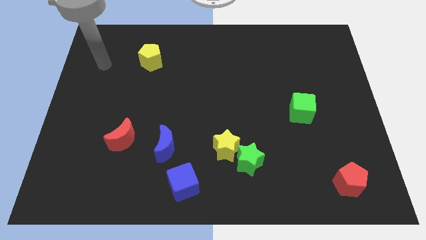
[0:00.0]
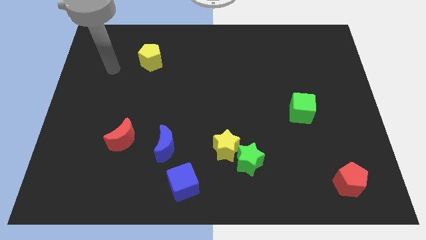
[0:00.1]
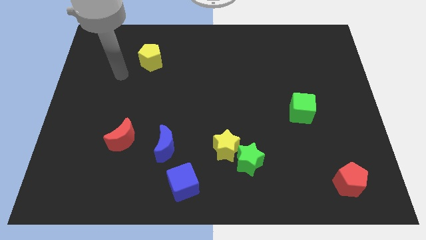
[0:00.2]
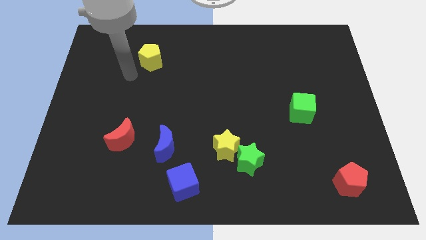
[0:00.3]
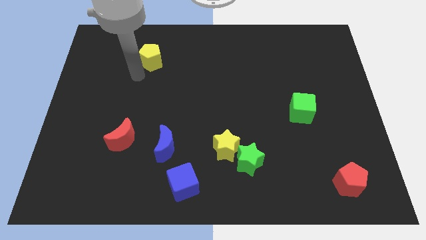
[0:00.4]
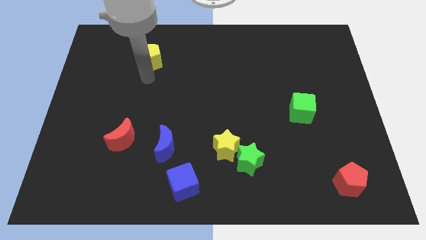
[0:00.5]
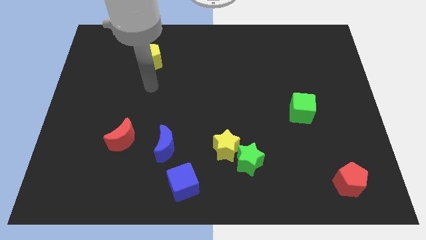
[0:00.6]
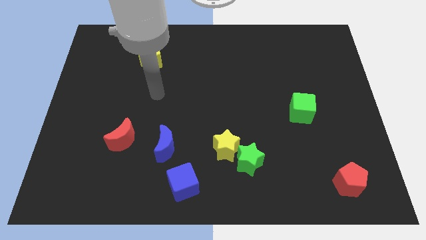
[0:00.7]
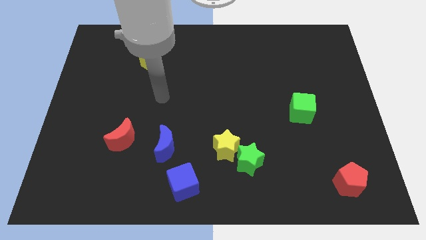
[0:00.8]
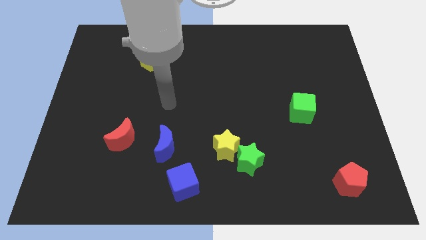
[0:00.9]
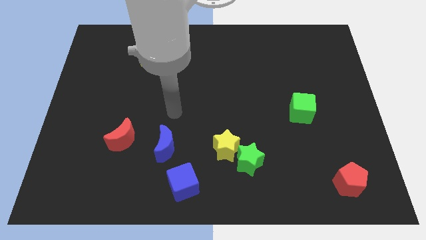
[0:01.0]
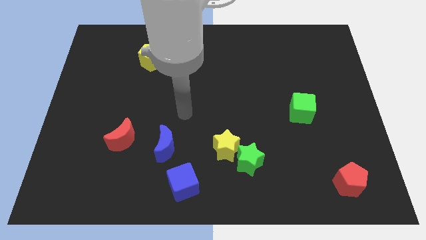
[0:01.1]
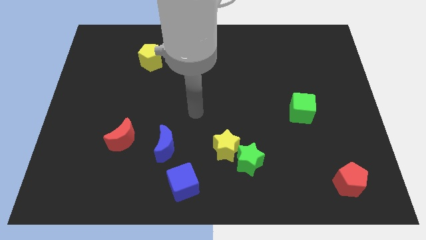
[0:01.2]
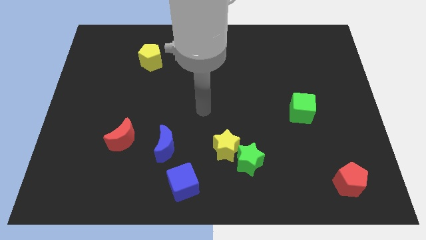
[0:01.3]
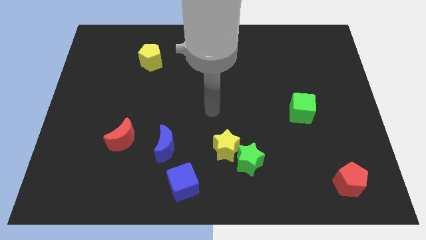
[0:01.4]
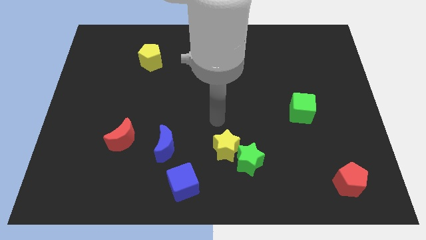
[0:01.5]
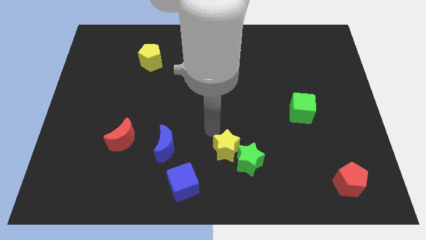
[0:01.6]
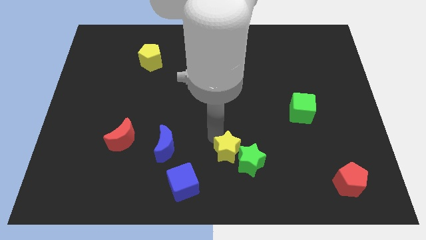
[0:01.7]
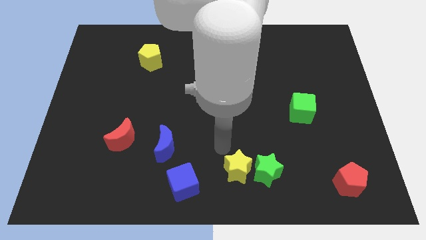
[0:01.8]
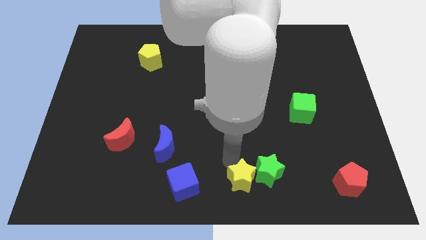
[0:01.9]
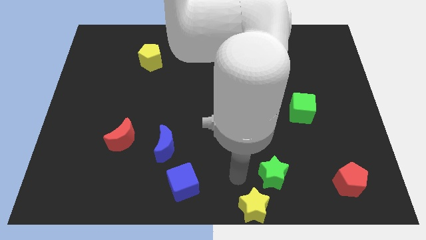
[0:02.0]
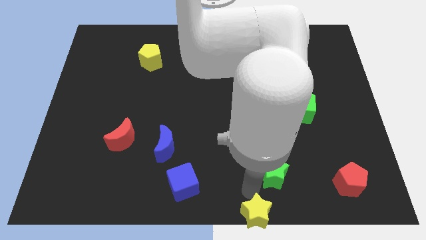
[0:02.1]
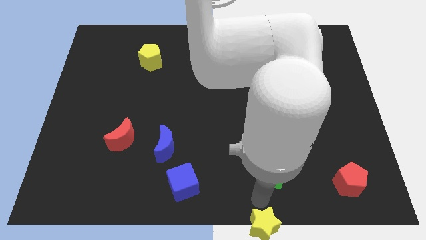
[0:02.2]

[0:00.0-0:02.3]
move the green star away from the yellow star

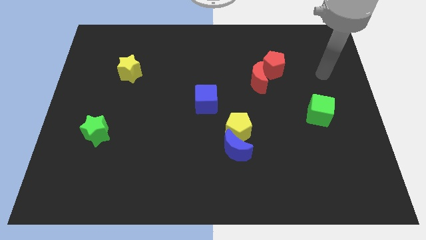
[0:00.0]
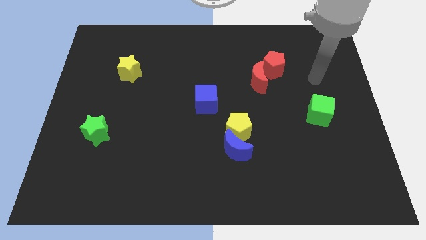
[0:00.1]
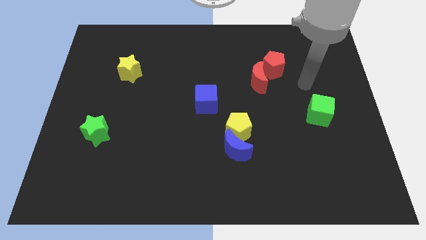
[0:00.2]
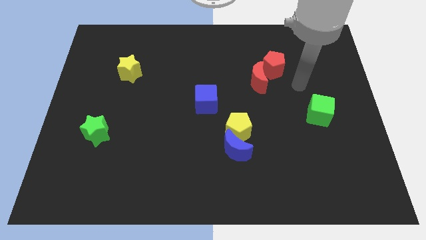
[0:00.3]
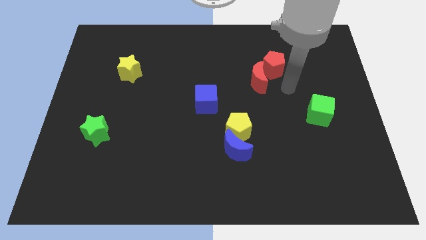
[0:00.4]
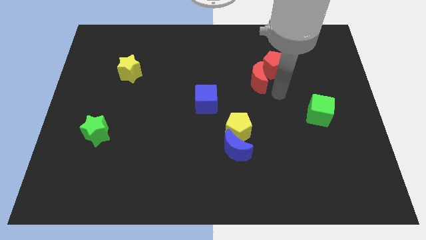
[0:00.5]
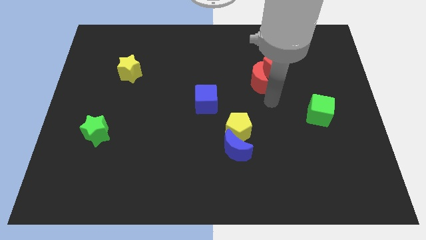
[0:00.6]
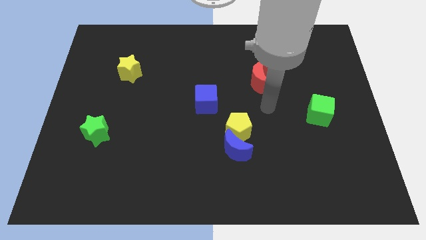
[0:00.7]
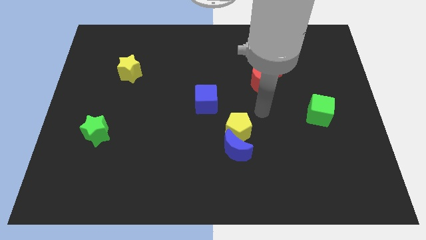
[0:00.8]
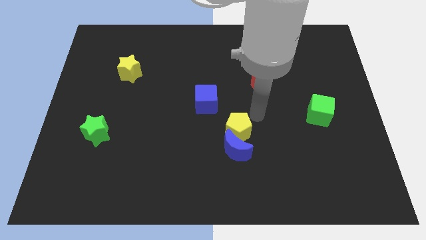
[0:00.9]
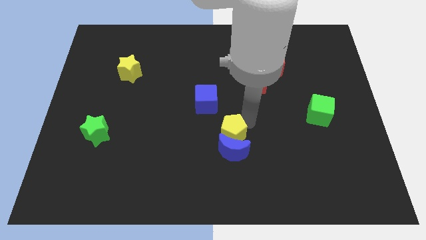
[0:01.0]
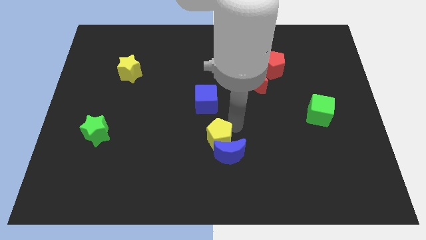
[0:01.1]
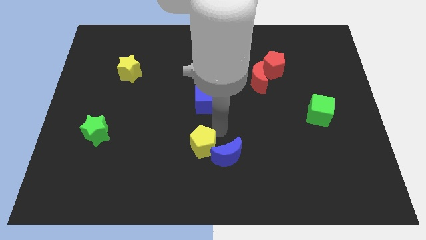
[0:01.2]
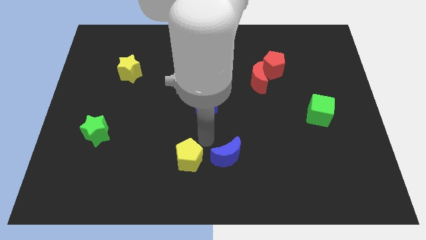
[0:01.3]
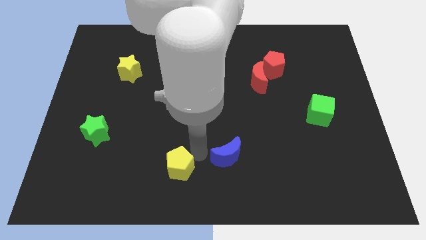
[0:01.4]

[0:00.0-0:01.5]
pull the blue moon apart from the yellow pentagon

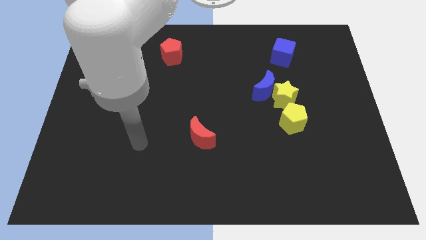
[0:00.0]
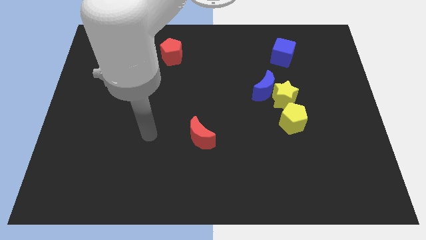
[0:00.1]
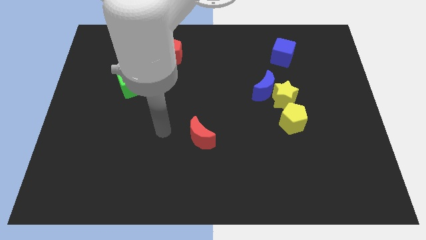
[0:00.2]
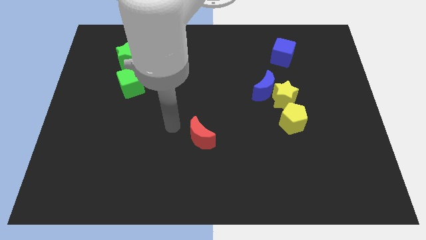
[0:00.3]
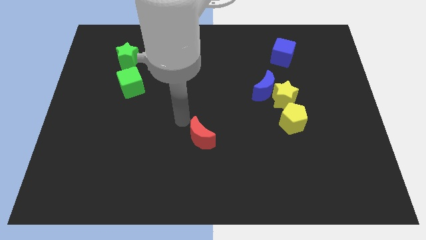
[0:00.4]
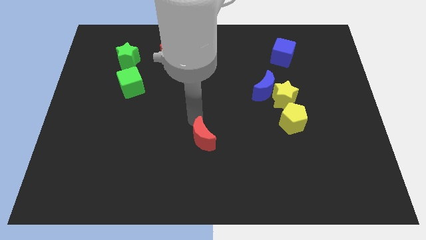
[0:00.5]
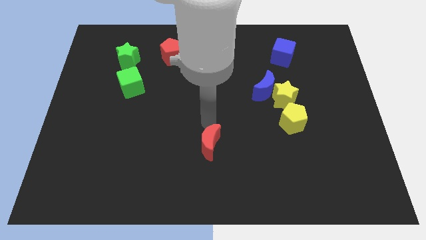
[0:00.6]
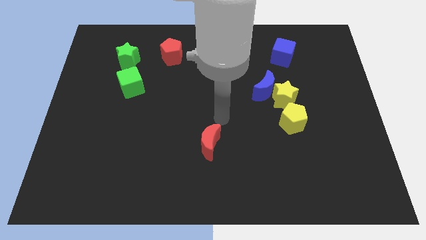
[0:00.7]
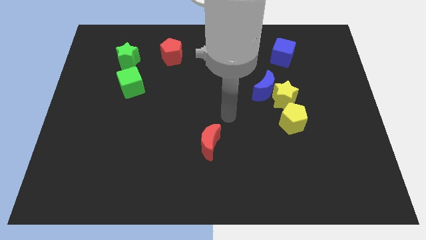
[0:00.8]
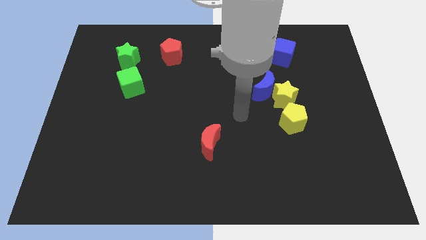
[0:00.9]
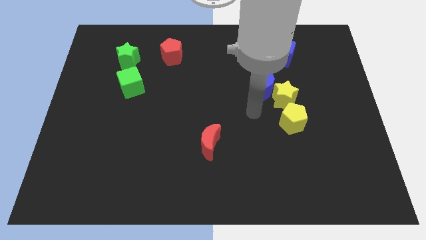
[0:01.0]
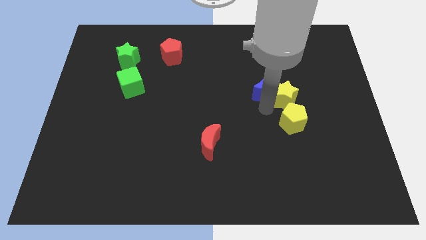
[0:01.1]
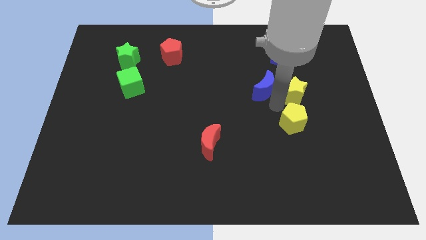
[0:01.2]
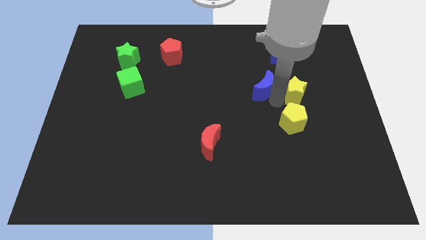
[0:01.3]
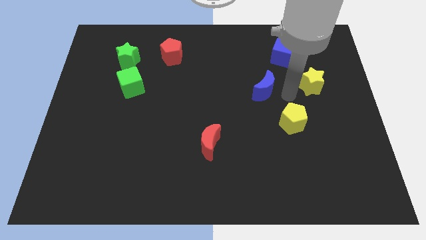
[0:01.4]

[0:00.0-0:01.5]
pull the blue moon apart from the yellow star

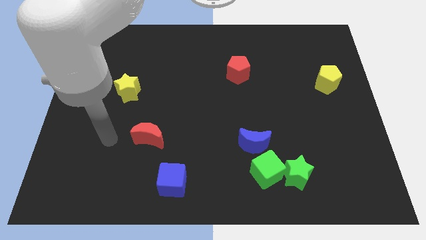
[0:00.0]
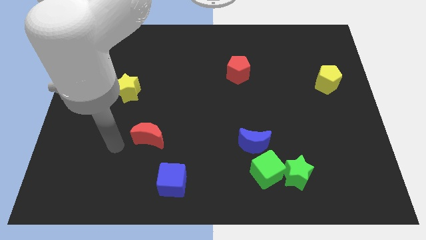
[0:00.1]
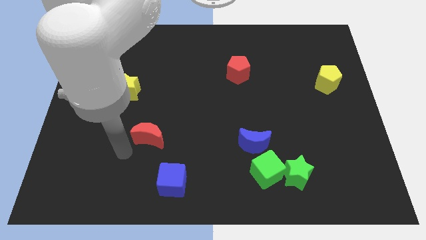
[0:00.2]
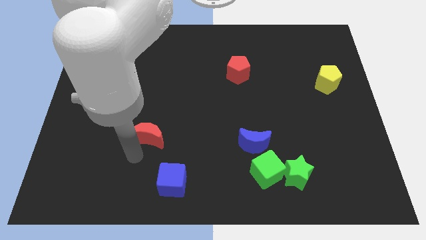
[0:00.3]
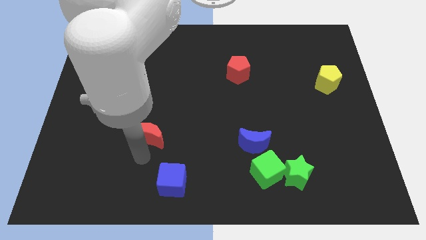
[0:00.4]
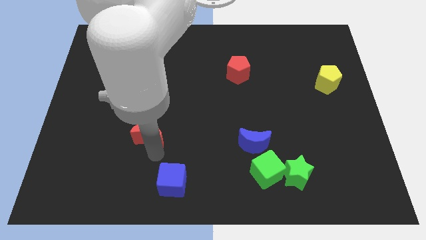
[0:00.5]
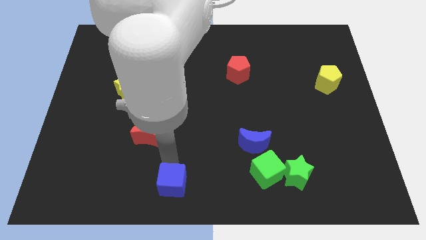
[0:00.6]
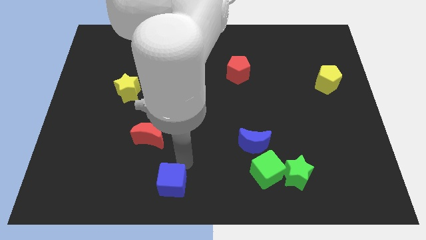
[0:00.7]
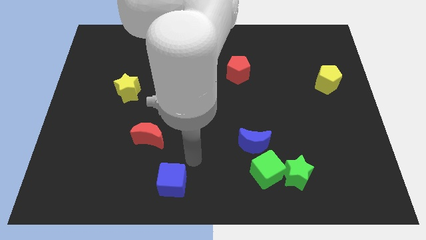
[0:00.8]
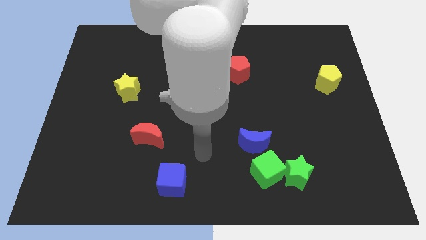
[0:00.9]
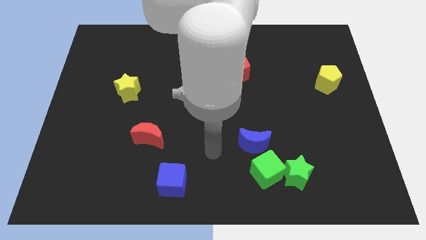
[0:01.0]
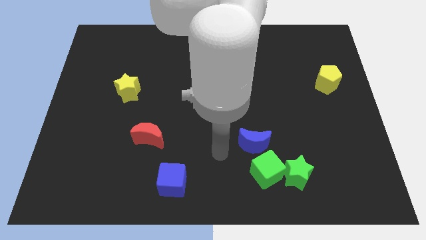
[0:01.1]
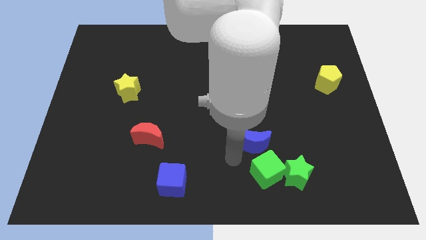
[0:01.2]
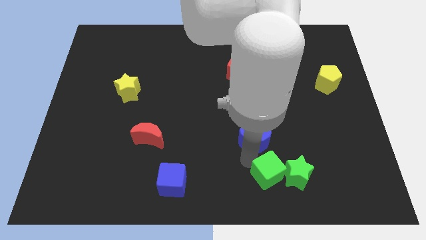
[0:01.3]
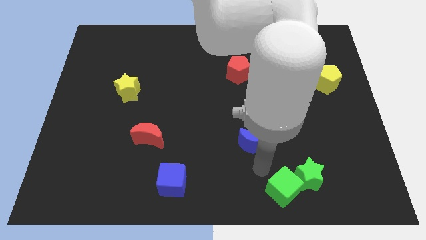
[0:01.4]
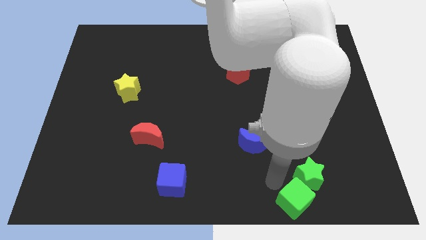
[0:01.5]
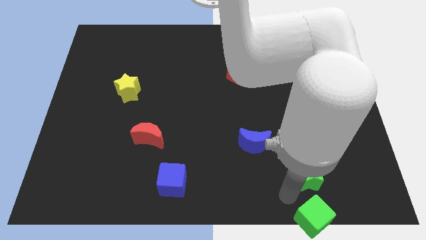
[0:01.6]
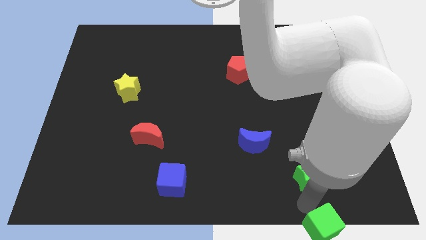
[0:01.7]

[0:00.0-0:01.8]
pull the green star apart from the green cube

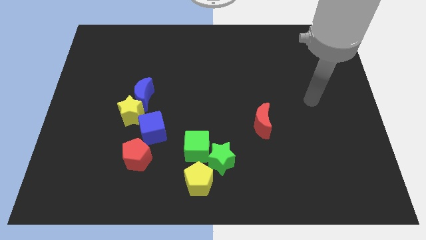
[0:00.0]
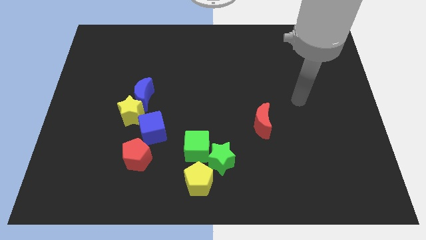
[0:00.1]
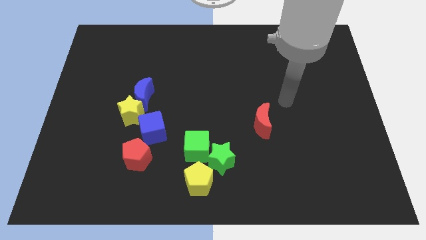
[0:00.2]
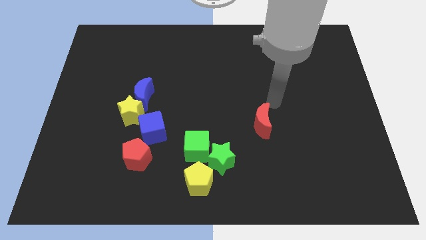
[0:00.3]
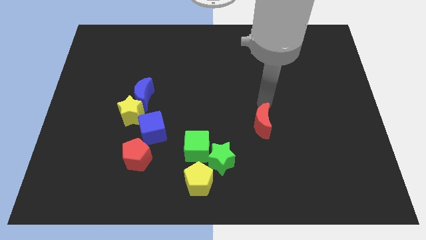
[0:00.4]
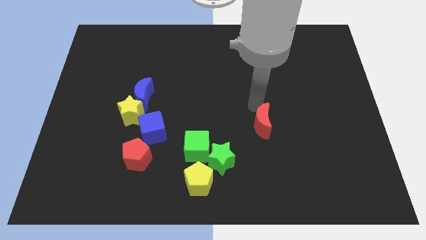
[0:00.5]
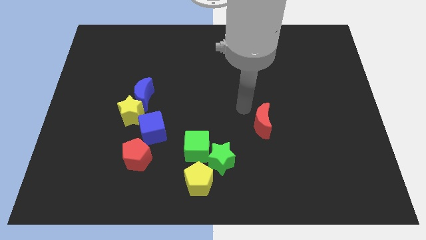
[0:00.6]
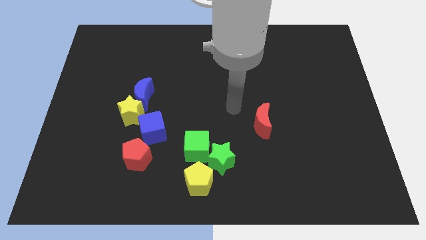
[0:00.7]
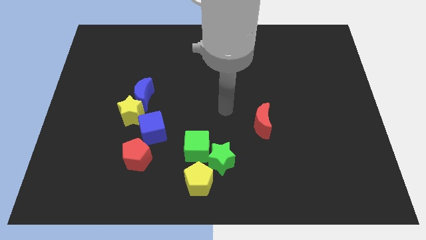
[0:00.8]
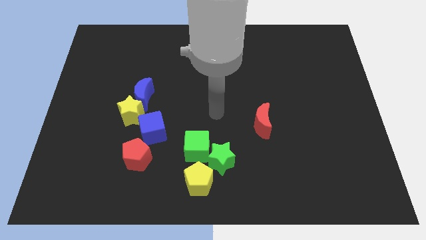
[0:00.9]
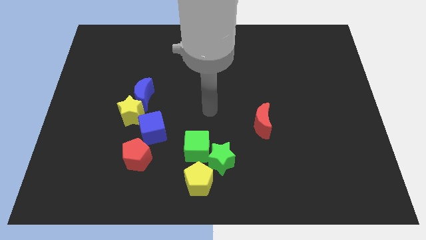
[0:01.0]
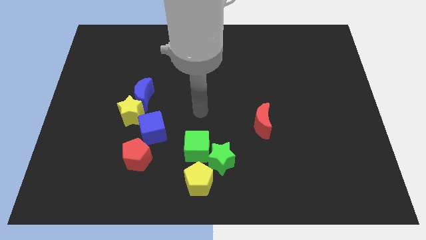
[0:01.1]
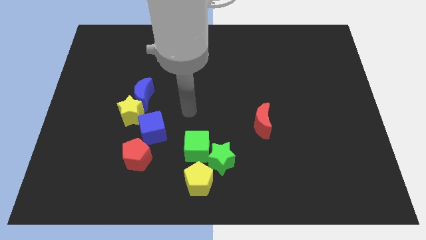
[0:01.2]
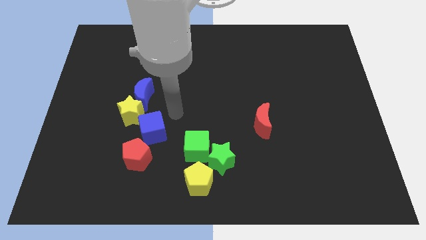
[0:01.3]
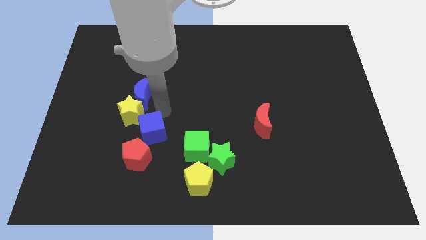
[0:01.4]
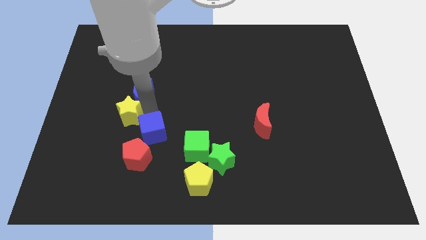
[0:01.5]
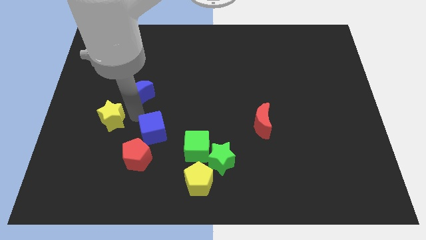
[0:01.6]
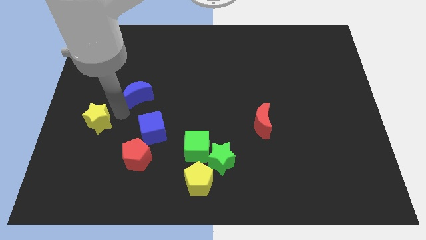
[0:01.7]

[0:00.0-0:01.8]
move the blue moon away from the yellow star

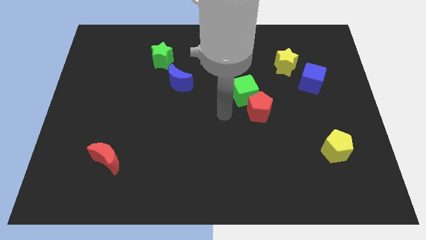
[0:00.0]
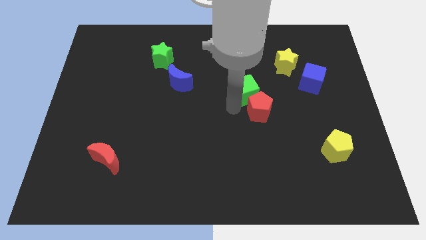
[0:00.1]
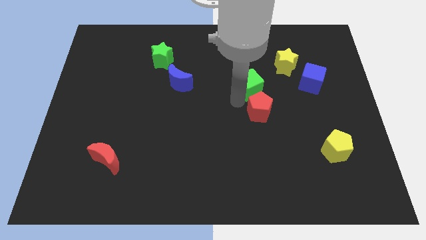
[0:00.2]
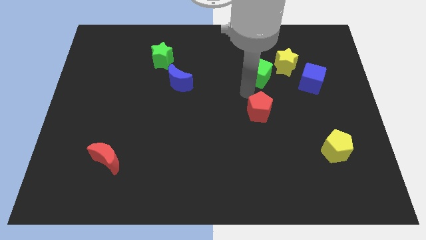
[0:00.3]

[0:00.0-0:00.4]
separate the red pentagon from the green cube
